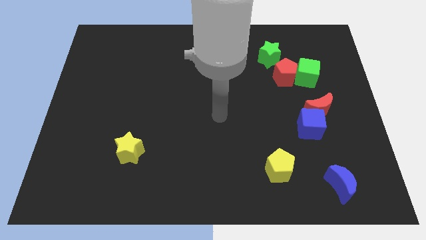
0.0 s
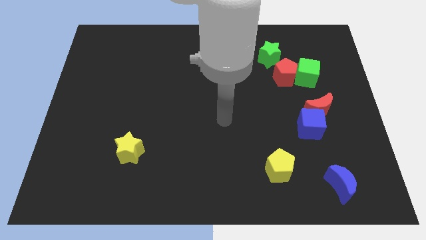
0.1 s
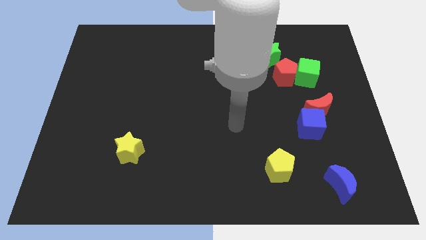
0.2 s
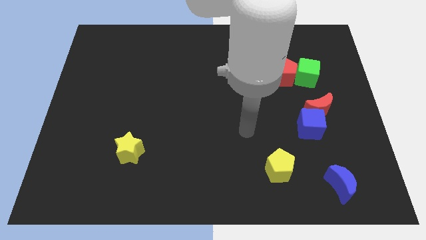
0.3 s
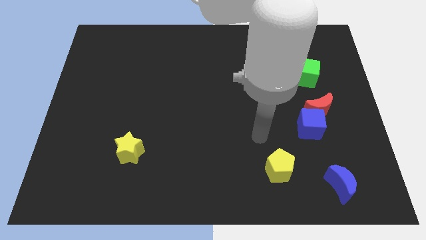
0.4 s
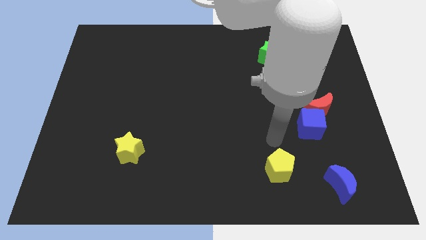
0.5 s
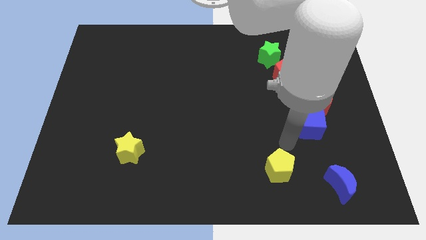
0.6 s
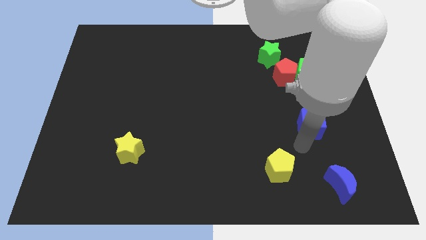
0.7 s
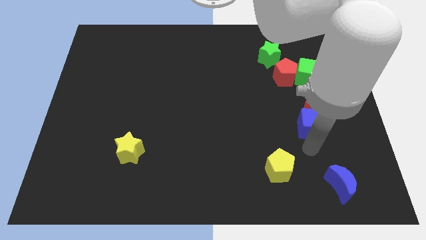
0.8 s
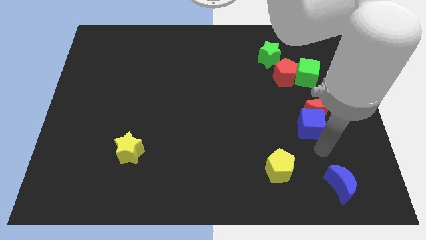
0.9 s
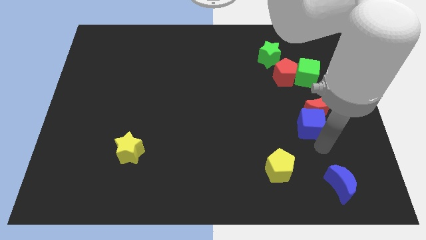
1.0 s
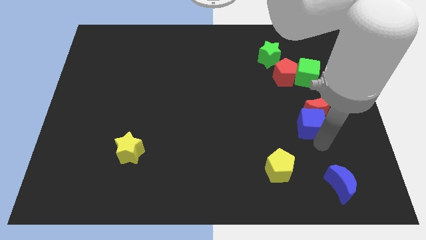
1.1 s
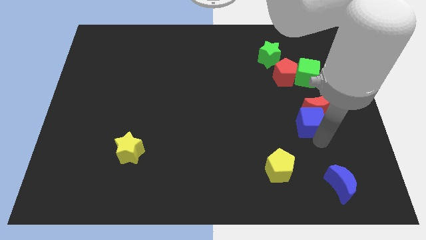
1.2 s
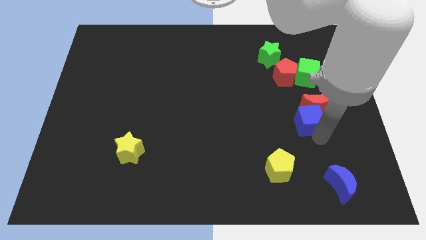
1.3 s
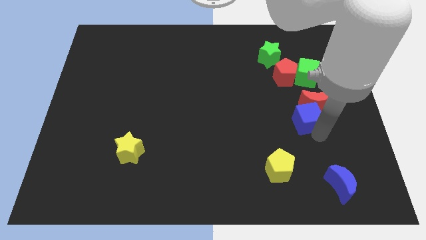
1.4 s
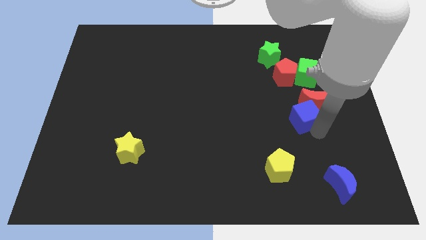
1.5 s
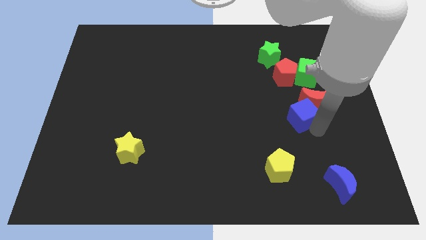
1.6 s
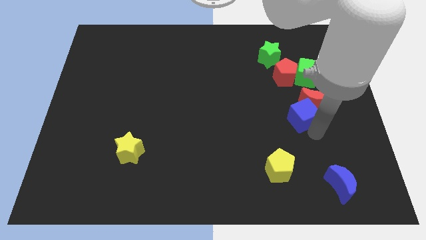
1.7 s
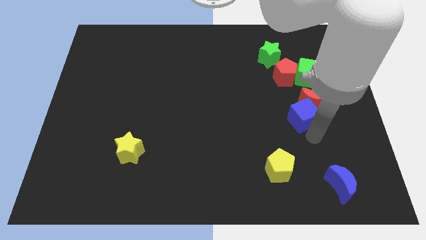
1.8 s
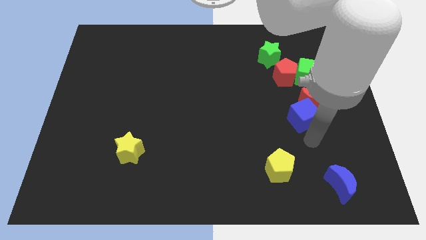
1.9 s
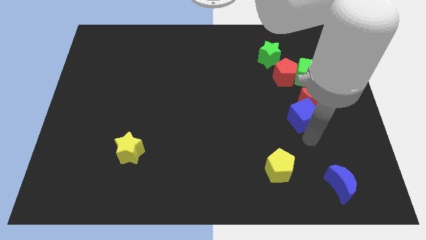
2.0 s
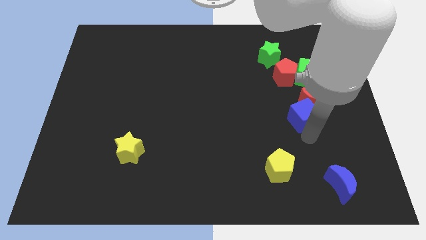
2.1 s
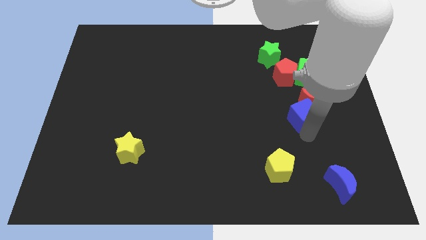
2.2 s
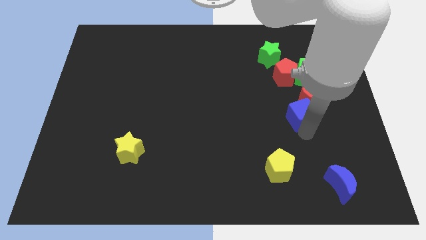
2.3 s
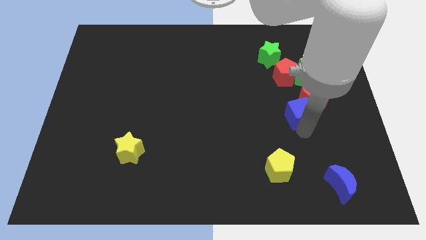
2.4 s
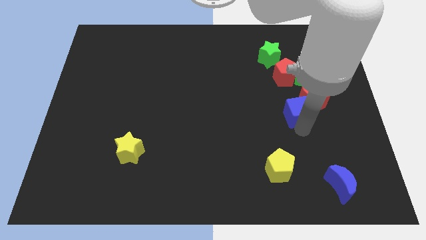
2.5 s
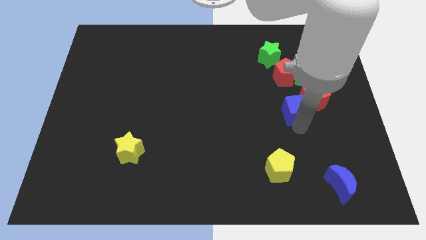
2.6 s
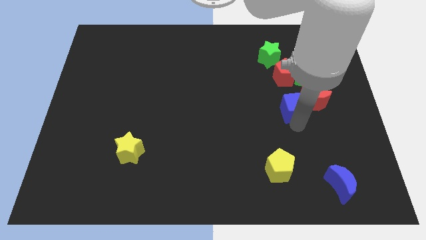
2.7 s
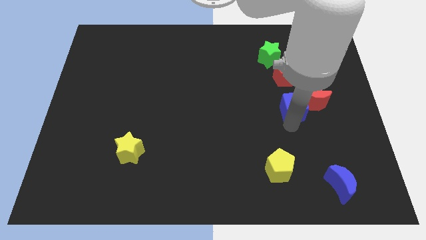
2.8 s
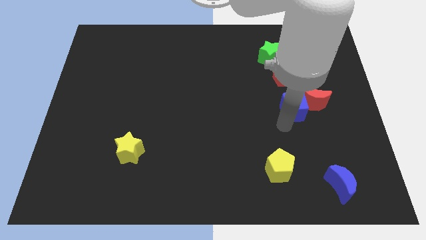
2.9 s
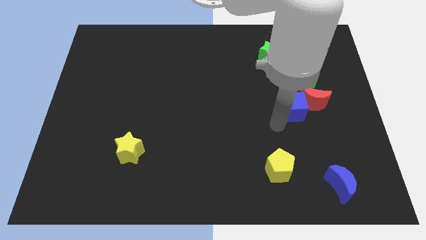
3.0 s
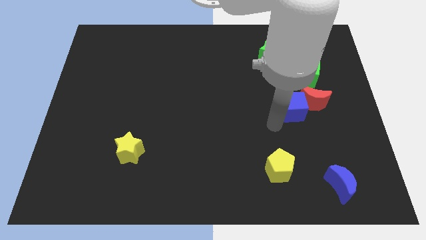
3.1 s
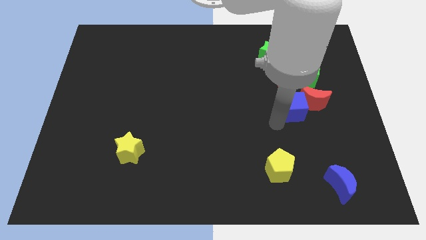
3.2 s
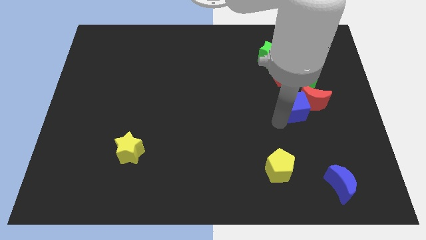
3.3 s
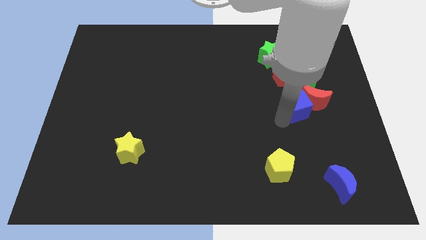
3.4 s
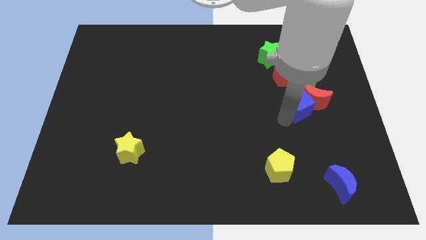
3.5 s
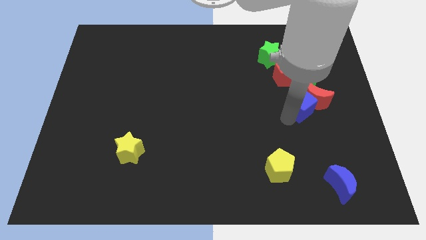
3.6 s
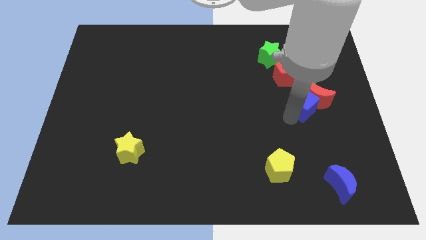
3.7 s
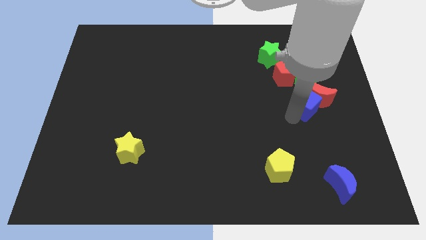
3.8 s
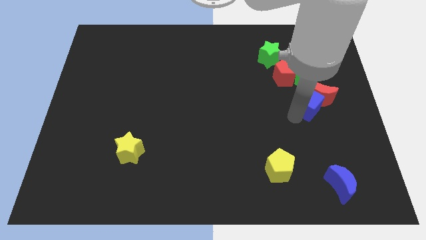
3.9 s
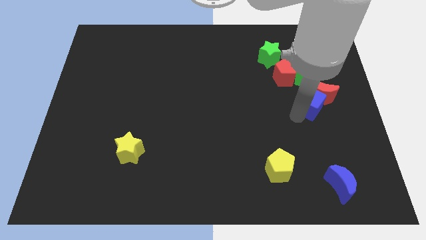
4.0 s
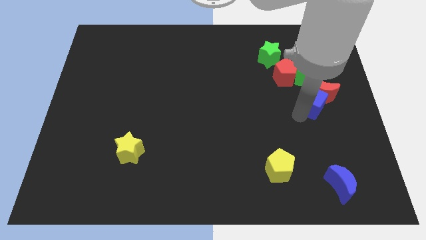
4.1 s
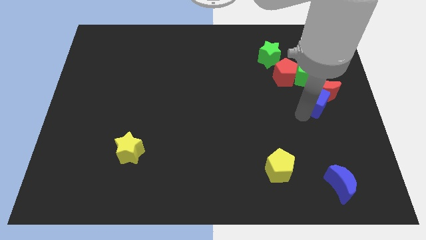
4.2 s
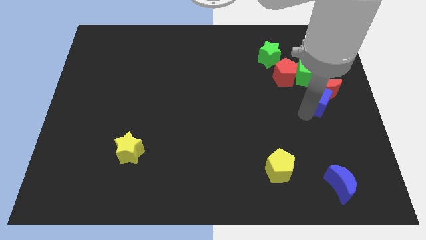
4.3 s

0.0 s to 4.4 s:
slightly push the blue cube upwards

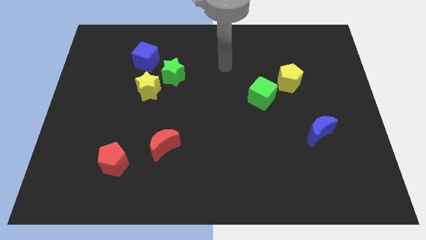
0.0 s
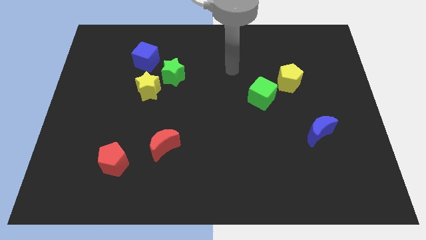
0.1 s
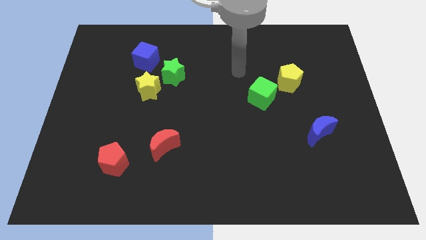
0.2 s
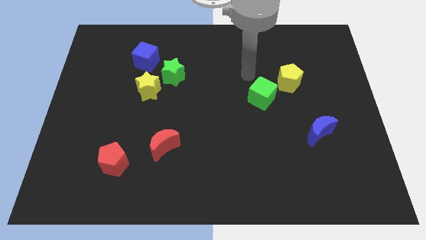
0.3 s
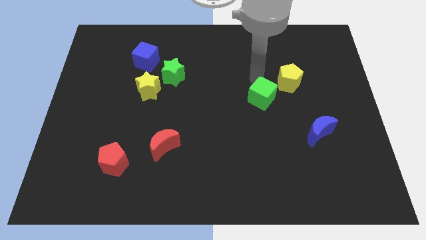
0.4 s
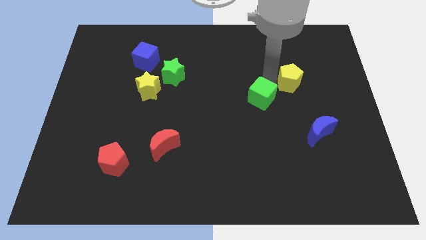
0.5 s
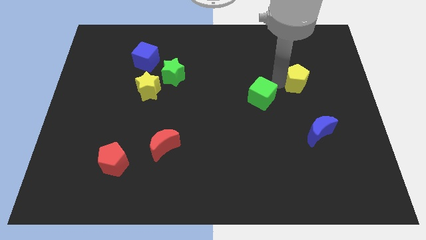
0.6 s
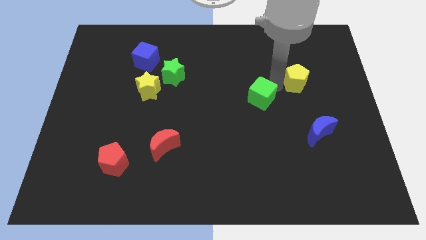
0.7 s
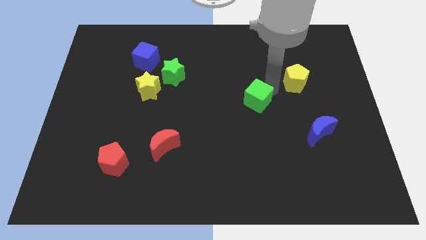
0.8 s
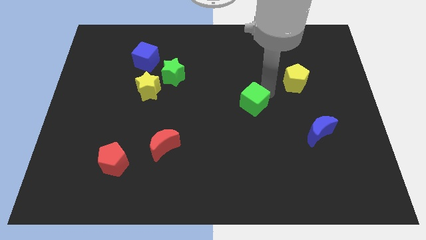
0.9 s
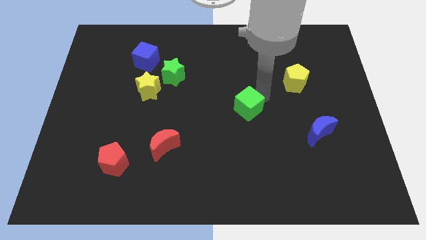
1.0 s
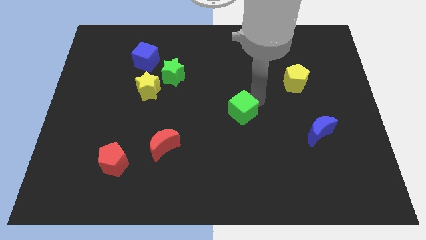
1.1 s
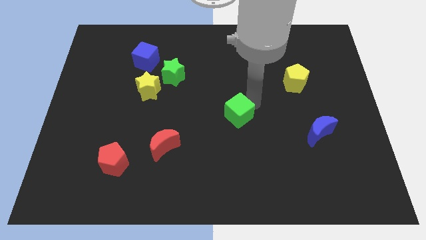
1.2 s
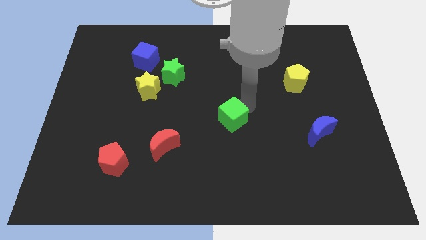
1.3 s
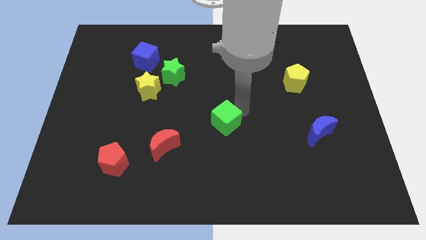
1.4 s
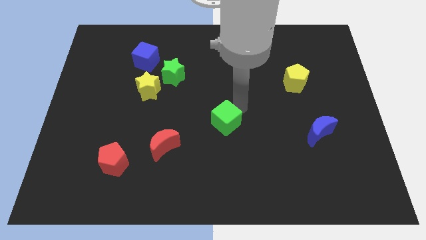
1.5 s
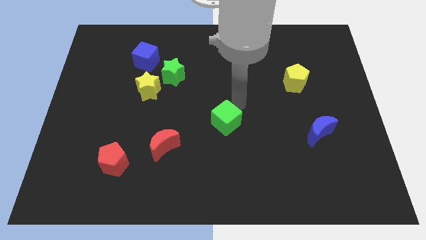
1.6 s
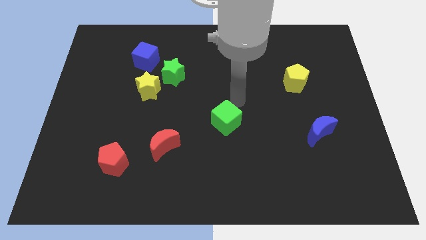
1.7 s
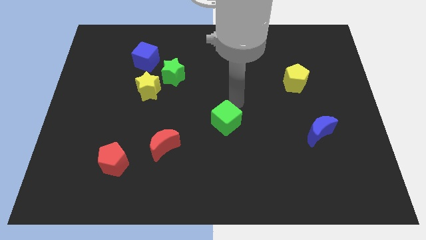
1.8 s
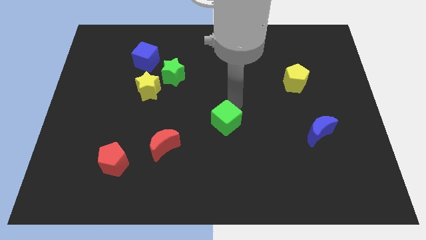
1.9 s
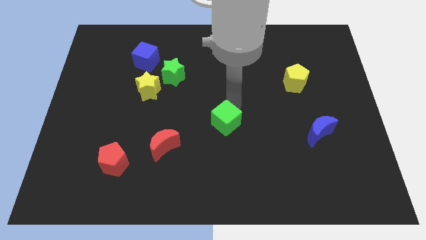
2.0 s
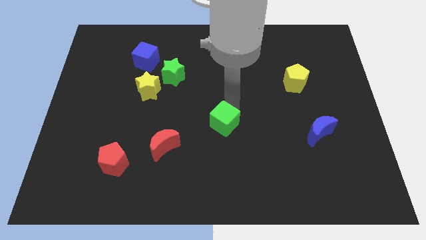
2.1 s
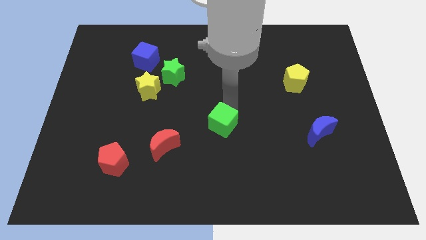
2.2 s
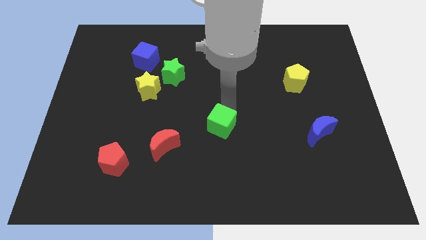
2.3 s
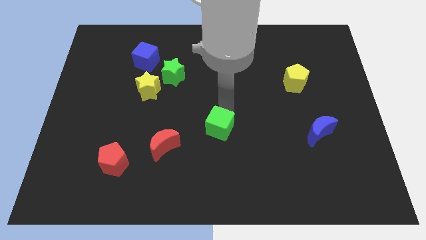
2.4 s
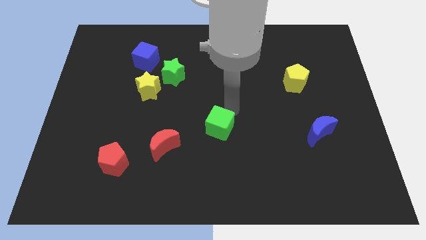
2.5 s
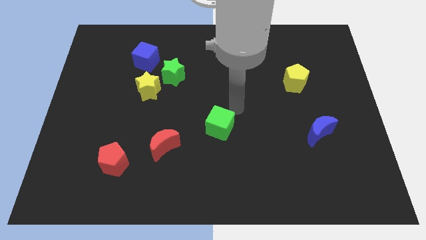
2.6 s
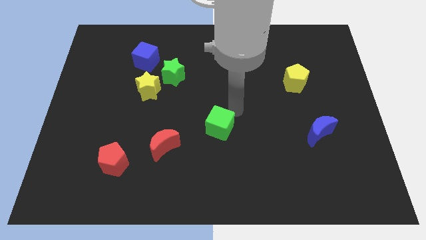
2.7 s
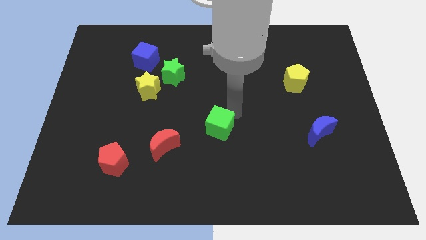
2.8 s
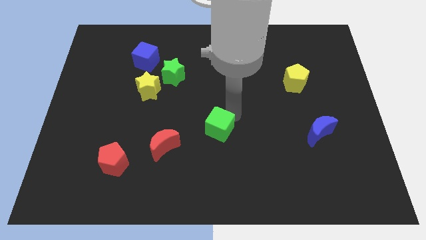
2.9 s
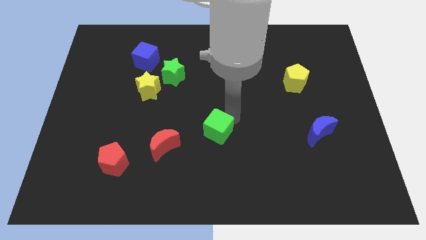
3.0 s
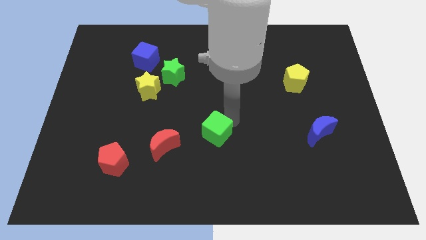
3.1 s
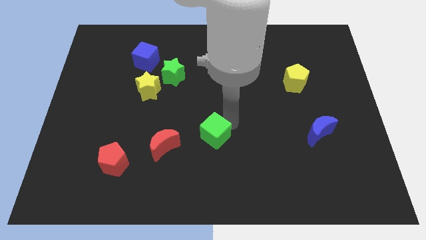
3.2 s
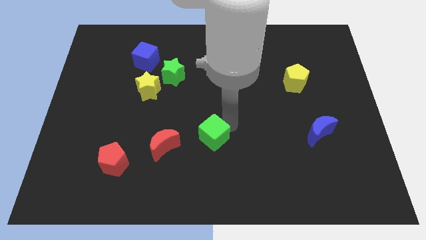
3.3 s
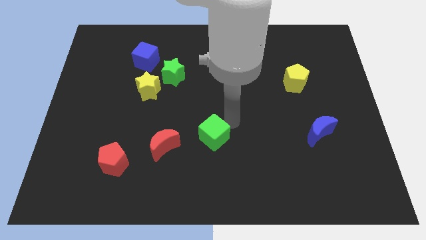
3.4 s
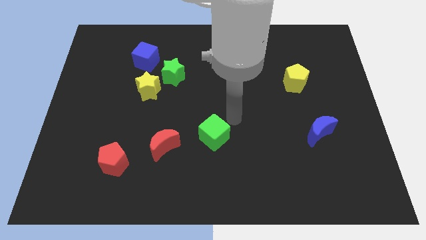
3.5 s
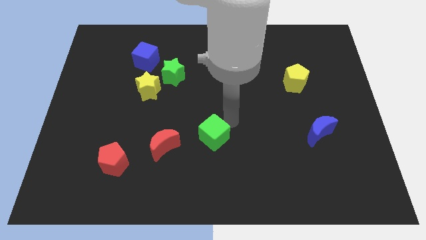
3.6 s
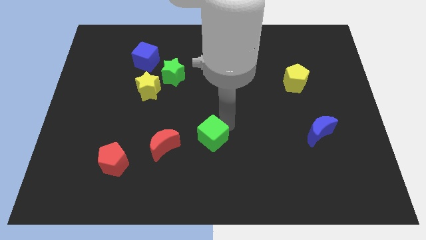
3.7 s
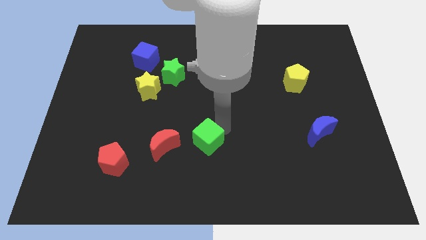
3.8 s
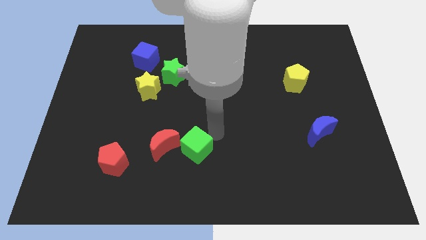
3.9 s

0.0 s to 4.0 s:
slide the green cube diagonally downwards and left
